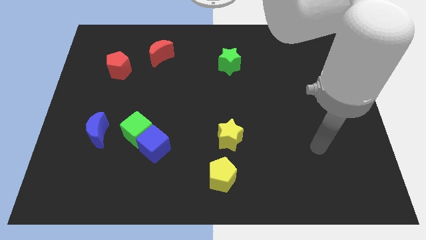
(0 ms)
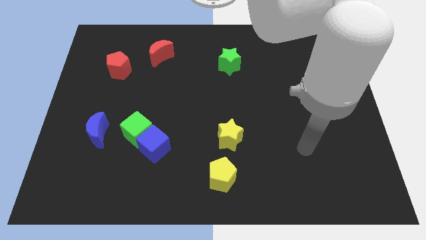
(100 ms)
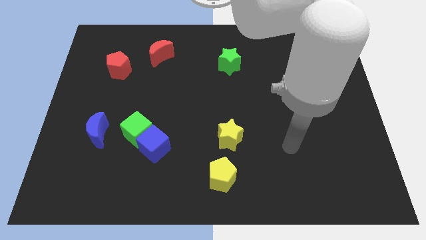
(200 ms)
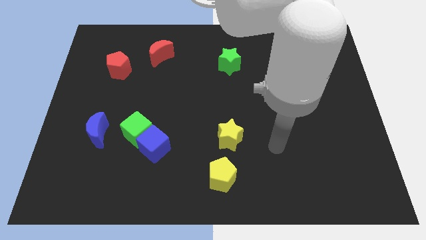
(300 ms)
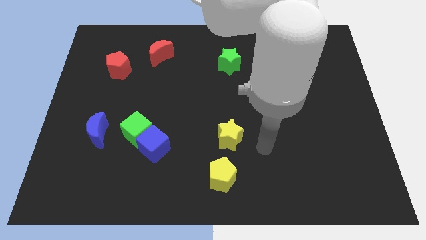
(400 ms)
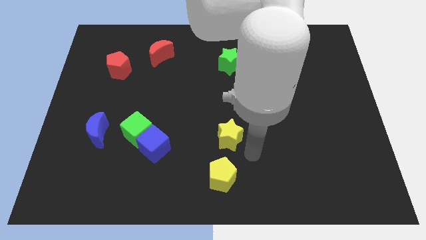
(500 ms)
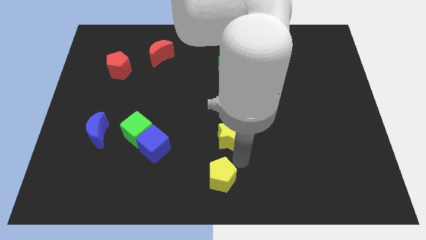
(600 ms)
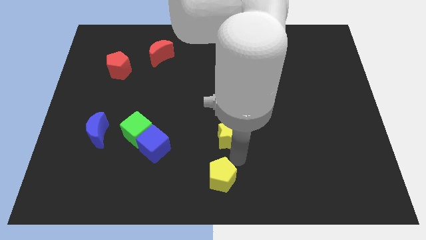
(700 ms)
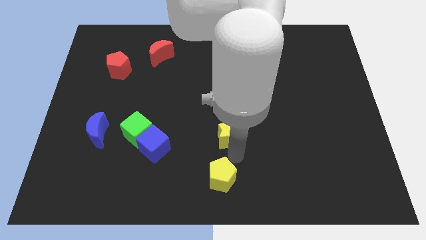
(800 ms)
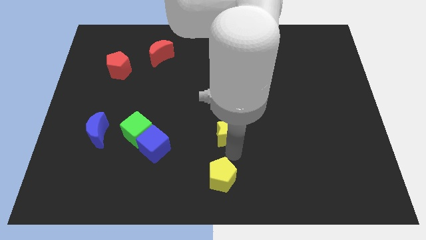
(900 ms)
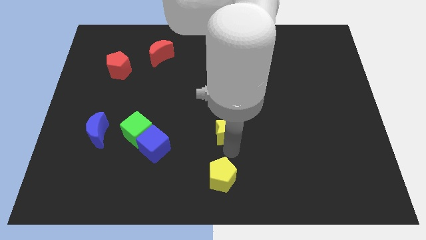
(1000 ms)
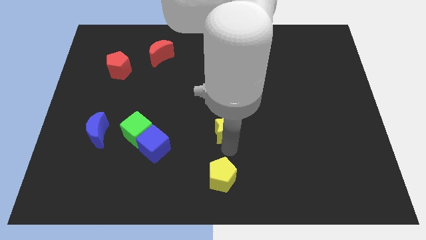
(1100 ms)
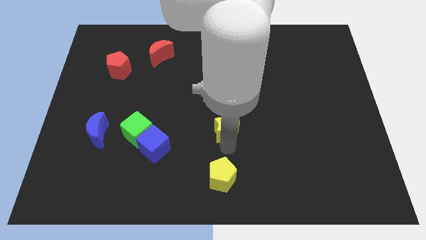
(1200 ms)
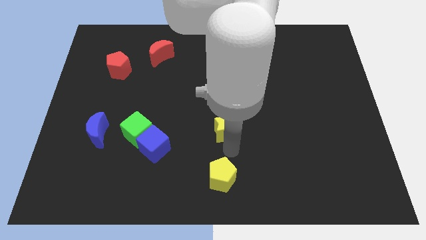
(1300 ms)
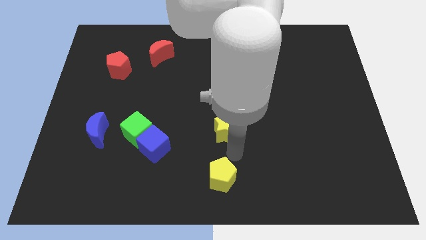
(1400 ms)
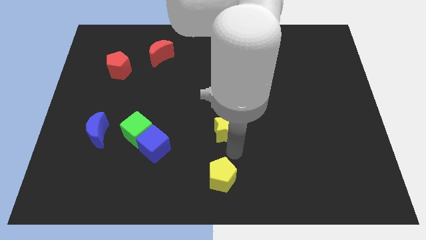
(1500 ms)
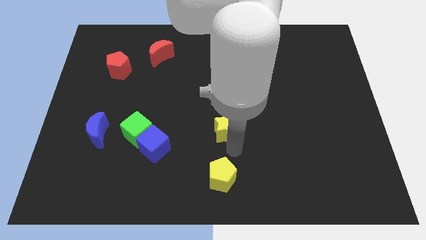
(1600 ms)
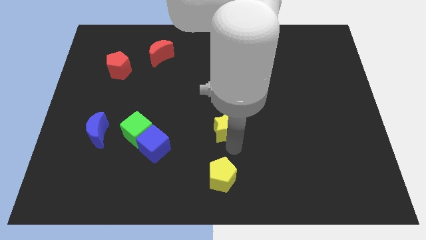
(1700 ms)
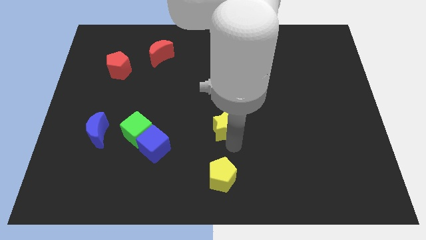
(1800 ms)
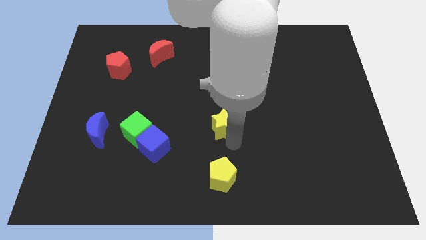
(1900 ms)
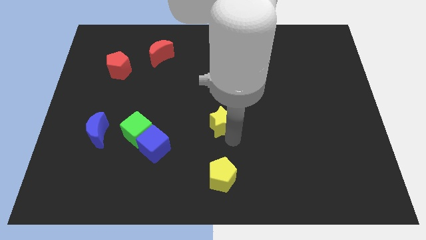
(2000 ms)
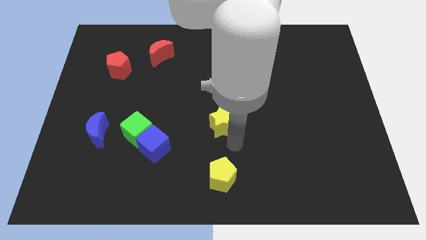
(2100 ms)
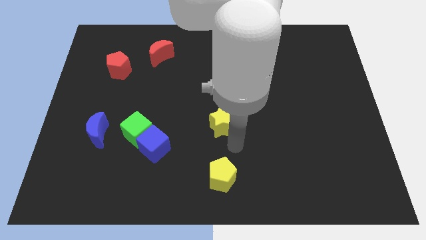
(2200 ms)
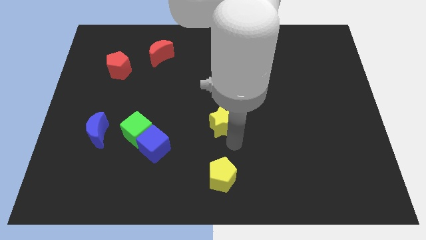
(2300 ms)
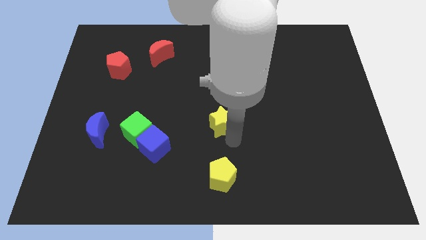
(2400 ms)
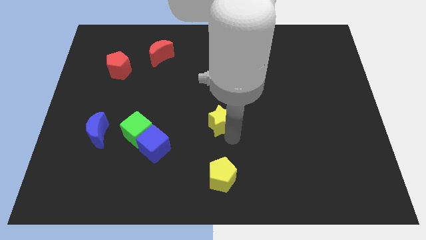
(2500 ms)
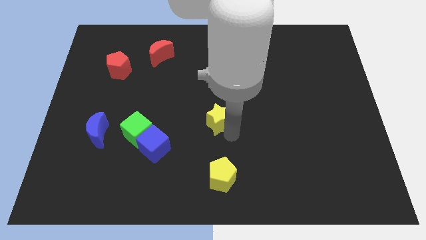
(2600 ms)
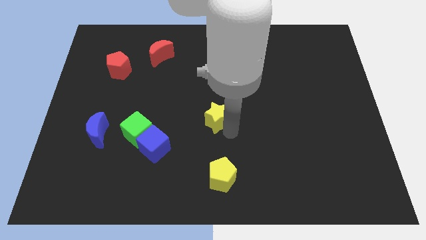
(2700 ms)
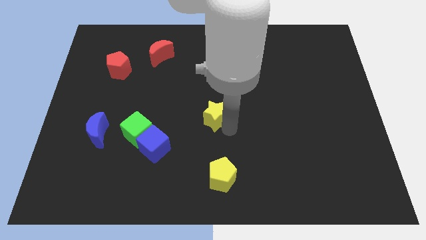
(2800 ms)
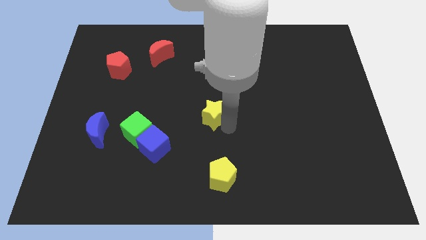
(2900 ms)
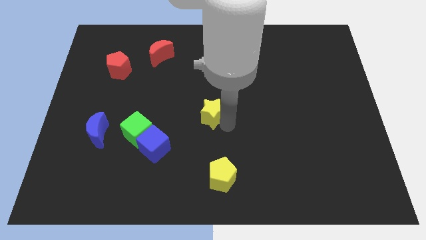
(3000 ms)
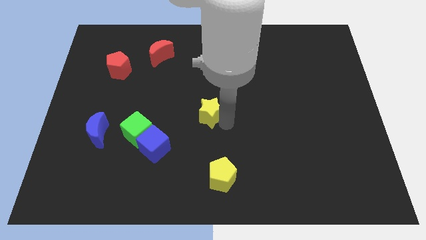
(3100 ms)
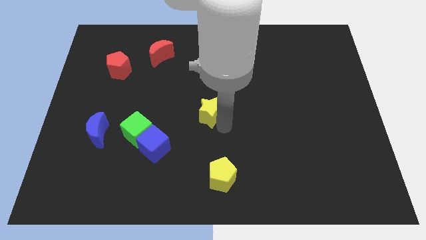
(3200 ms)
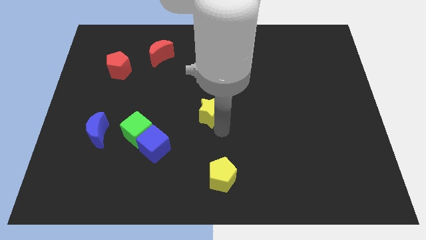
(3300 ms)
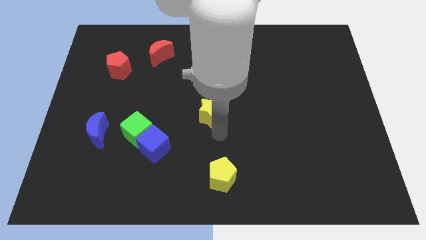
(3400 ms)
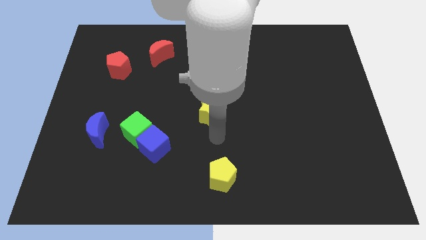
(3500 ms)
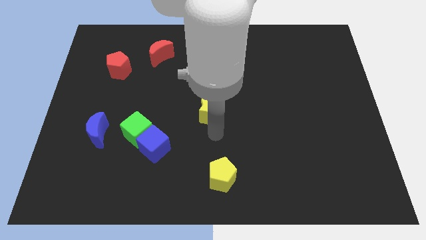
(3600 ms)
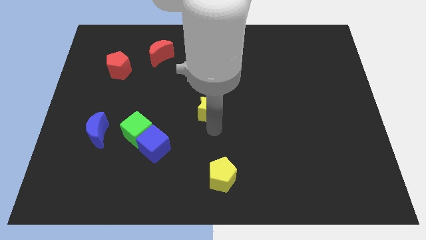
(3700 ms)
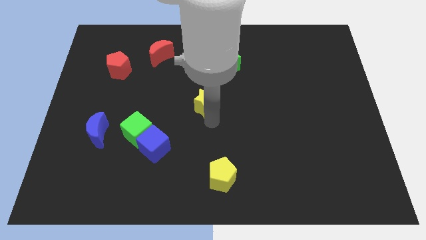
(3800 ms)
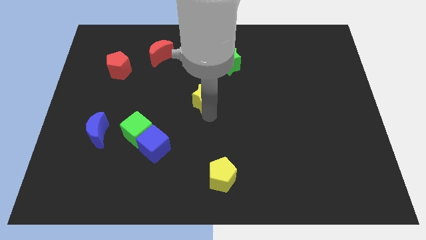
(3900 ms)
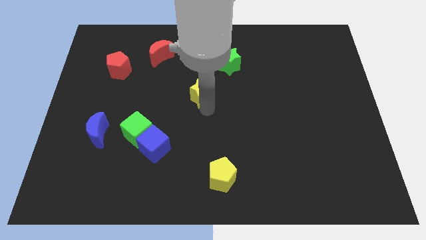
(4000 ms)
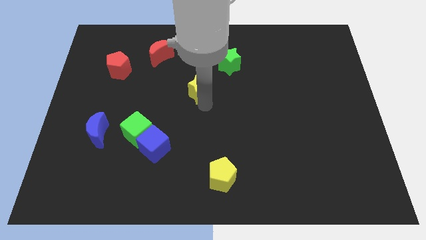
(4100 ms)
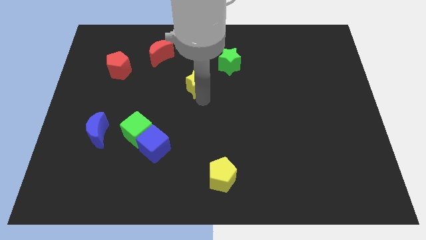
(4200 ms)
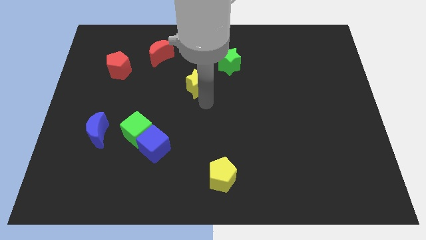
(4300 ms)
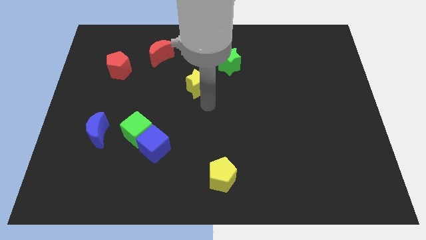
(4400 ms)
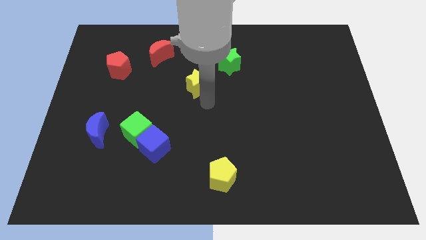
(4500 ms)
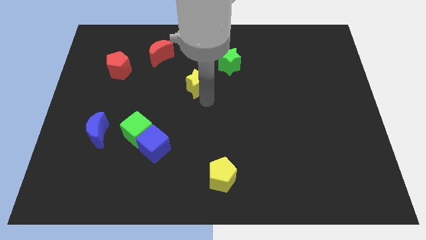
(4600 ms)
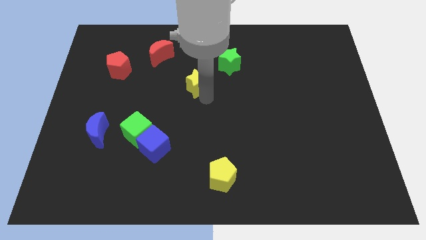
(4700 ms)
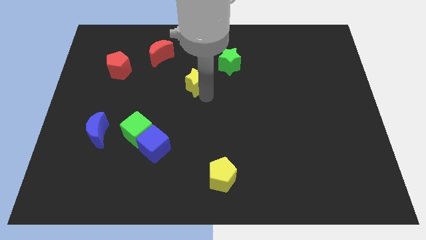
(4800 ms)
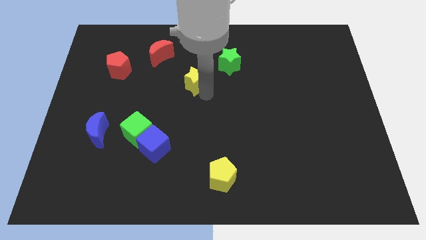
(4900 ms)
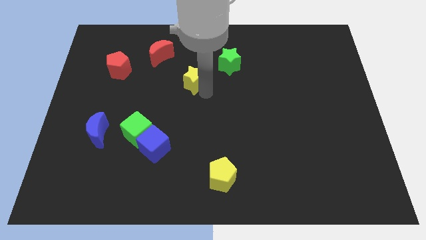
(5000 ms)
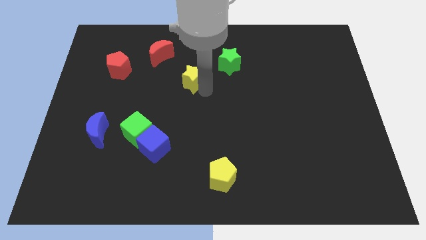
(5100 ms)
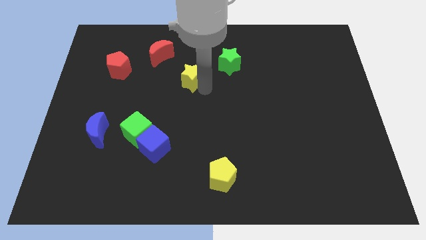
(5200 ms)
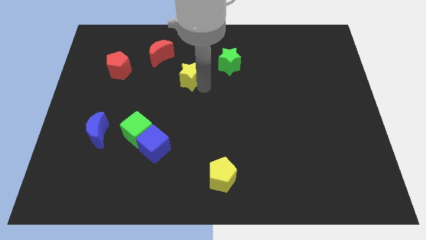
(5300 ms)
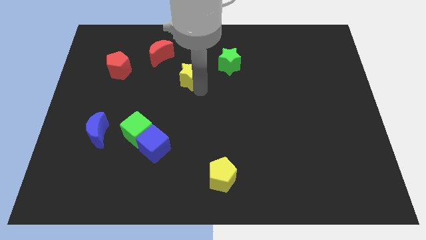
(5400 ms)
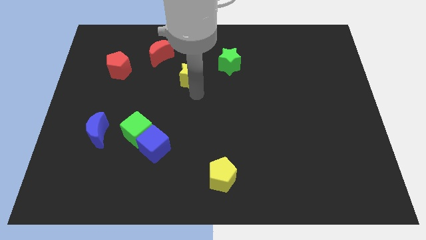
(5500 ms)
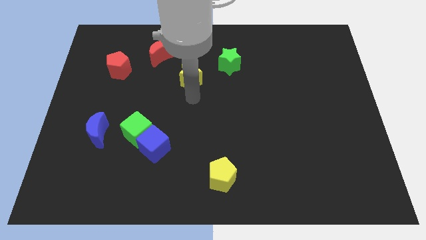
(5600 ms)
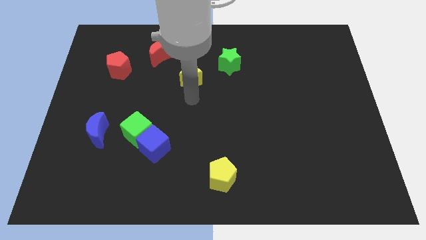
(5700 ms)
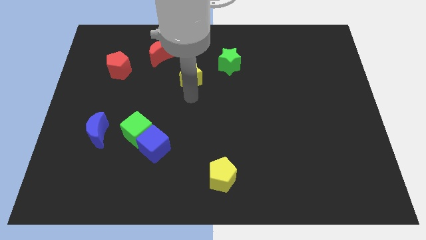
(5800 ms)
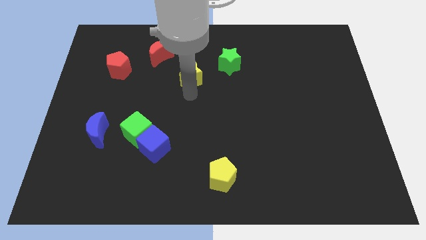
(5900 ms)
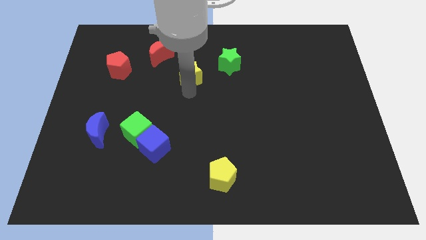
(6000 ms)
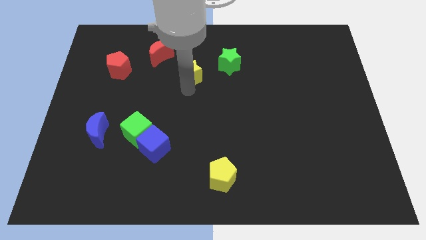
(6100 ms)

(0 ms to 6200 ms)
put the yellow star to the left of the green star
